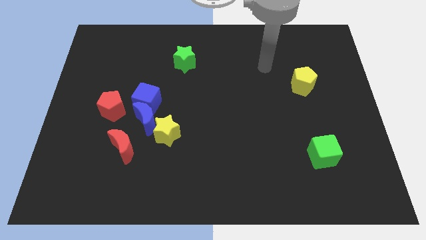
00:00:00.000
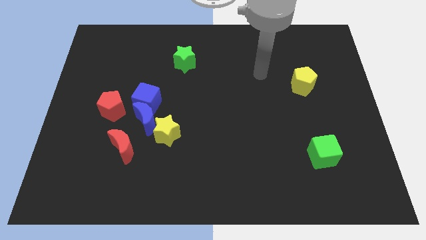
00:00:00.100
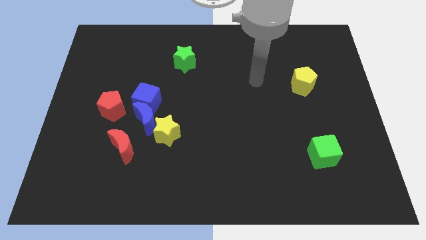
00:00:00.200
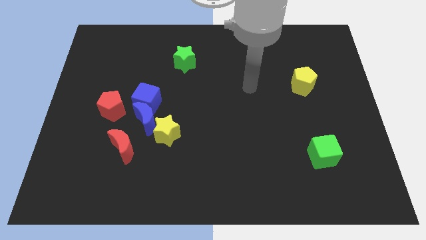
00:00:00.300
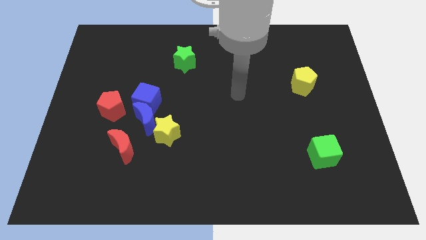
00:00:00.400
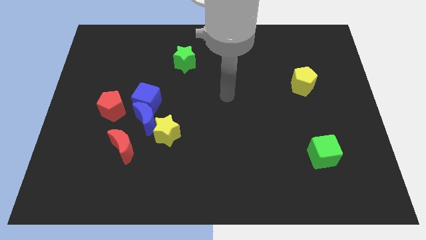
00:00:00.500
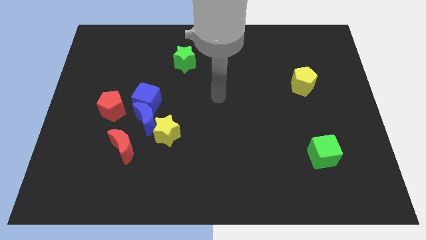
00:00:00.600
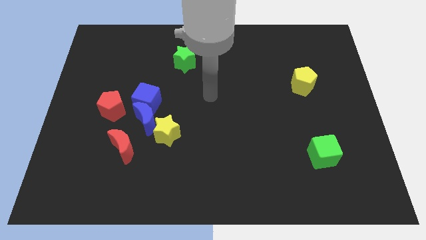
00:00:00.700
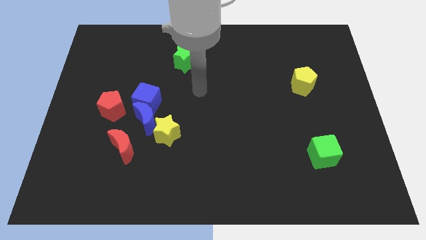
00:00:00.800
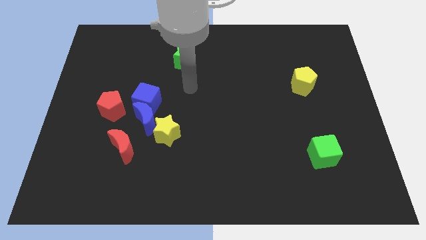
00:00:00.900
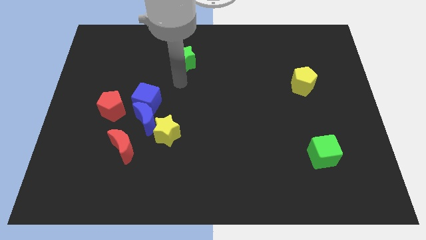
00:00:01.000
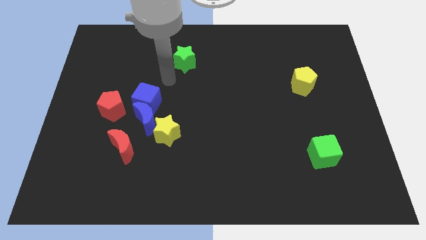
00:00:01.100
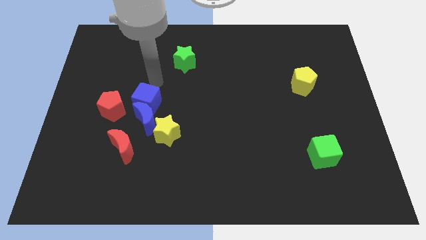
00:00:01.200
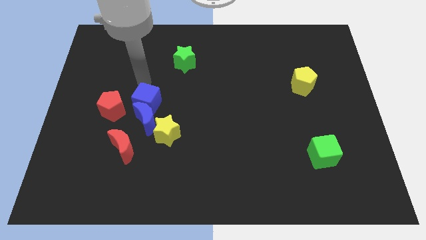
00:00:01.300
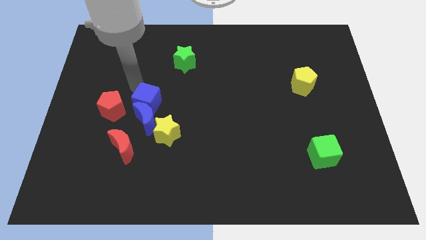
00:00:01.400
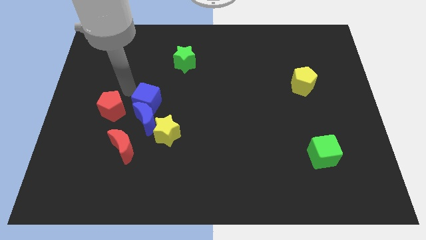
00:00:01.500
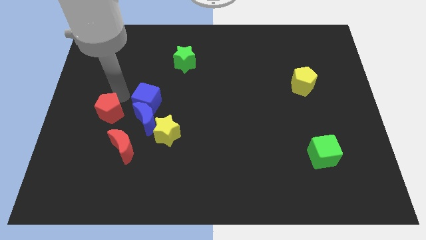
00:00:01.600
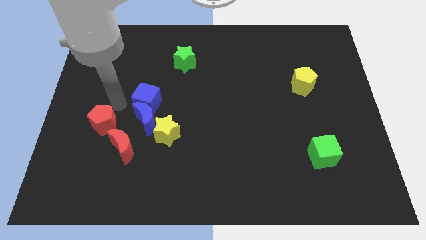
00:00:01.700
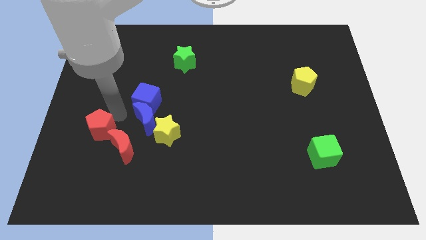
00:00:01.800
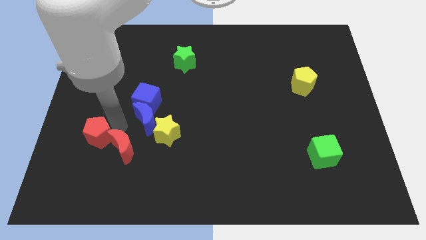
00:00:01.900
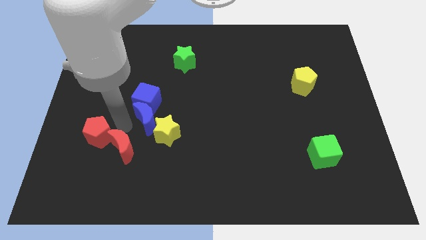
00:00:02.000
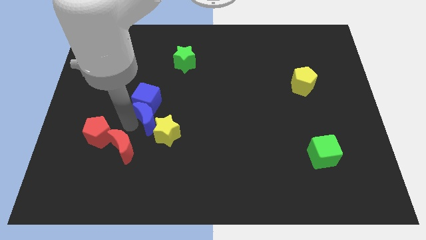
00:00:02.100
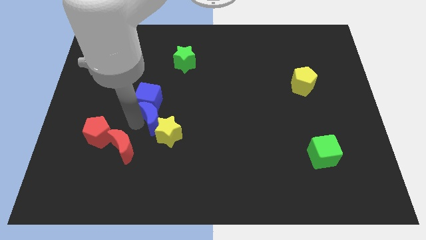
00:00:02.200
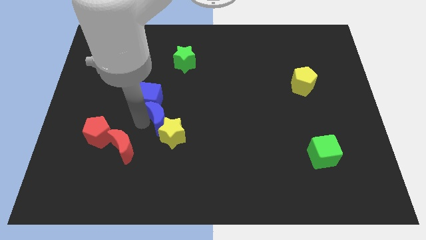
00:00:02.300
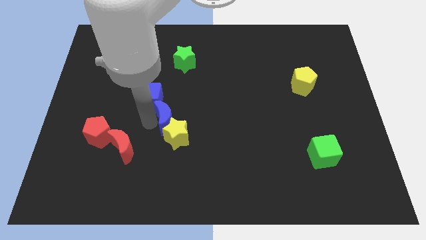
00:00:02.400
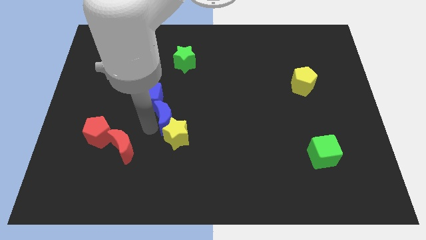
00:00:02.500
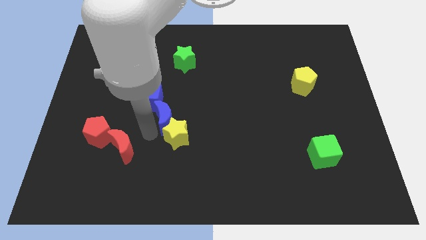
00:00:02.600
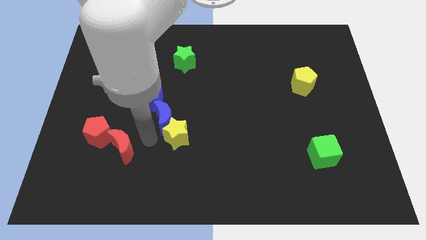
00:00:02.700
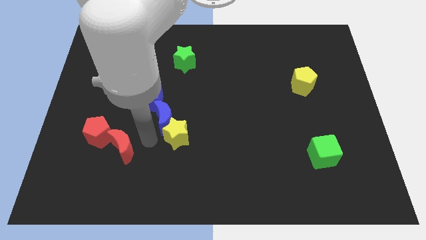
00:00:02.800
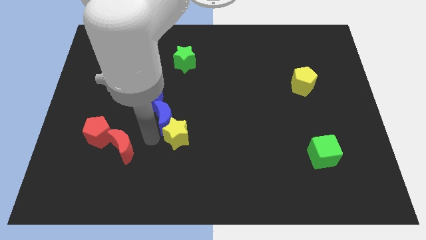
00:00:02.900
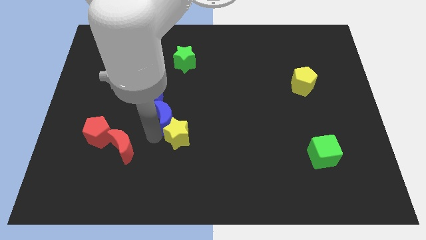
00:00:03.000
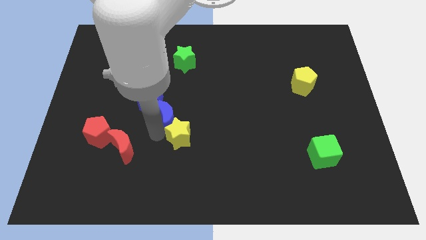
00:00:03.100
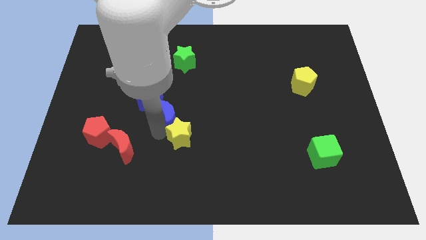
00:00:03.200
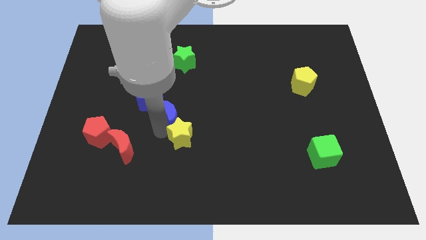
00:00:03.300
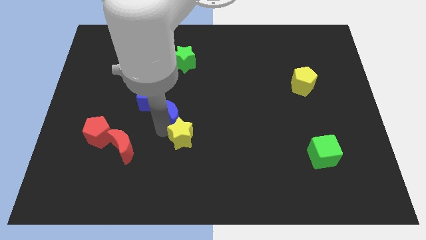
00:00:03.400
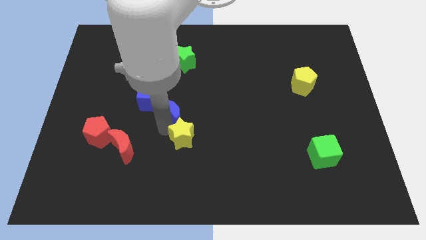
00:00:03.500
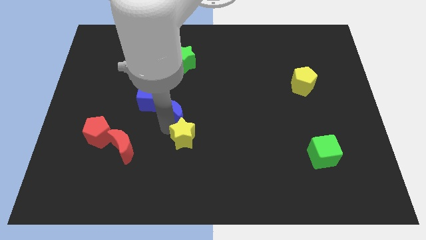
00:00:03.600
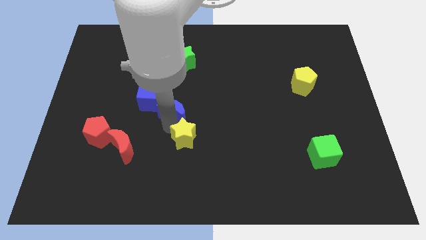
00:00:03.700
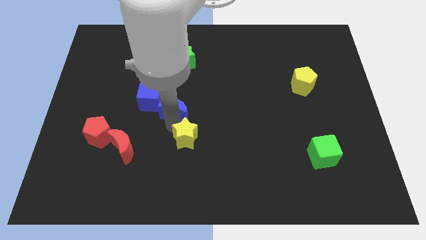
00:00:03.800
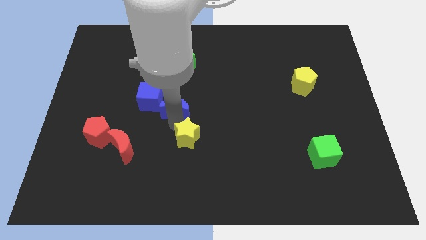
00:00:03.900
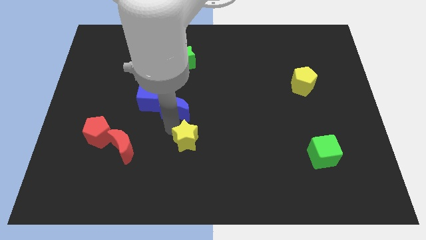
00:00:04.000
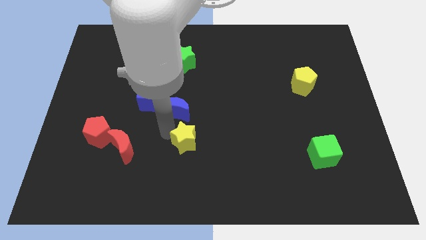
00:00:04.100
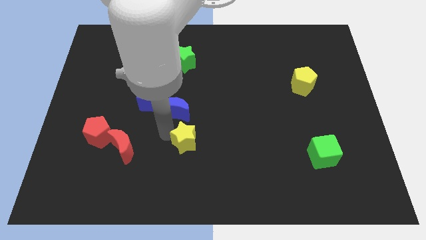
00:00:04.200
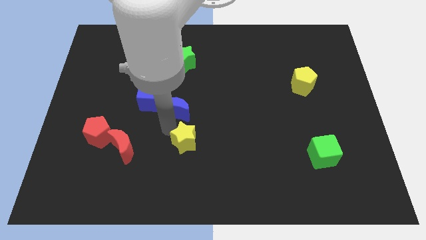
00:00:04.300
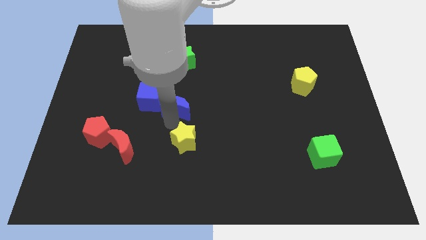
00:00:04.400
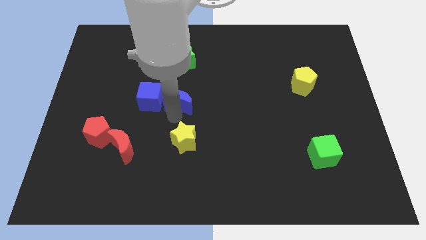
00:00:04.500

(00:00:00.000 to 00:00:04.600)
push the blue moon a little upwards and right

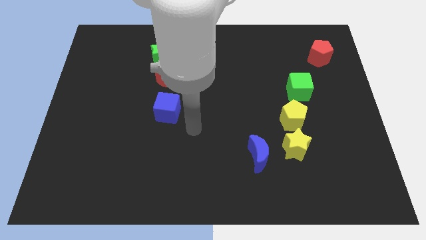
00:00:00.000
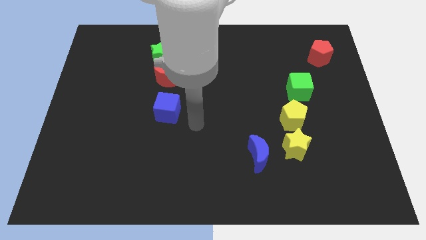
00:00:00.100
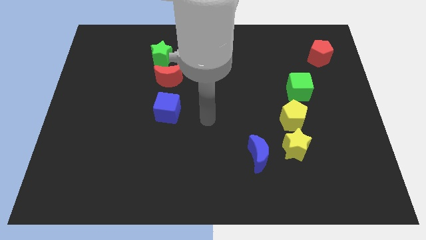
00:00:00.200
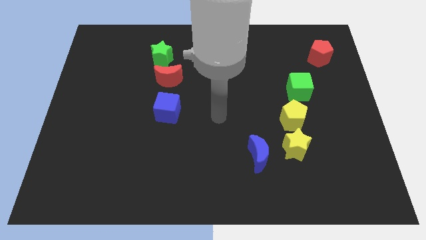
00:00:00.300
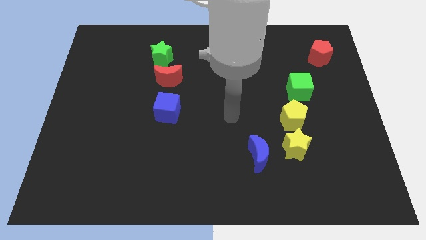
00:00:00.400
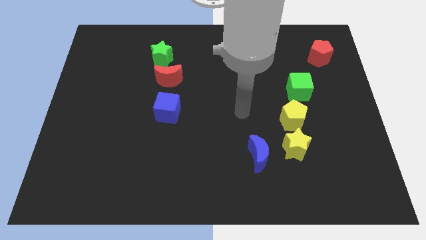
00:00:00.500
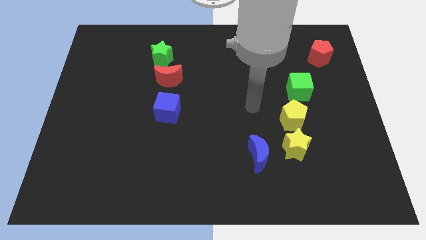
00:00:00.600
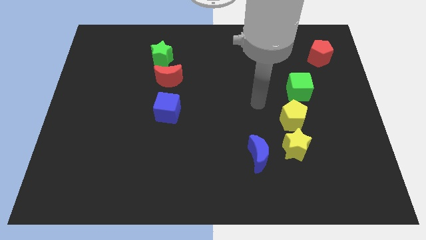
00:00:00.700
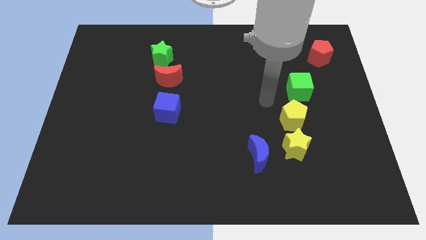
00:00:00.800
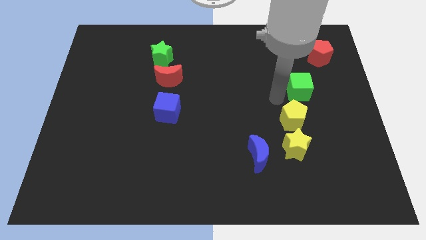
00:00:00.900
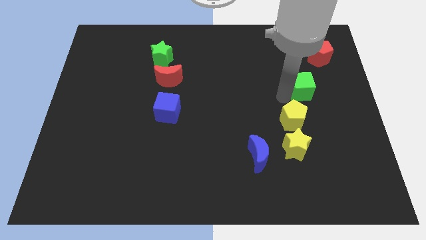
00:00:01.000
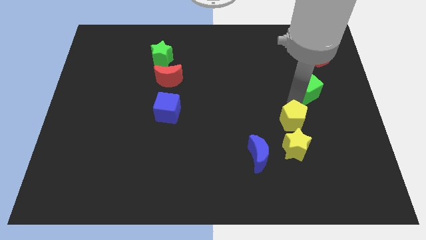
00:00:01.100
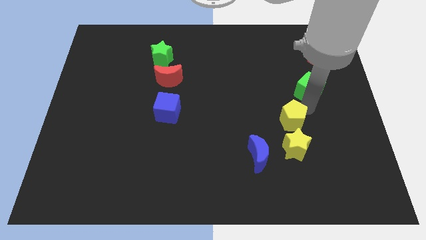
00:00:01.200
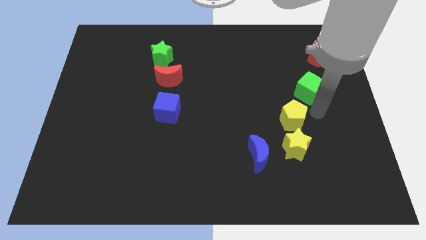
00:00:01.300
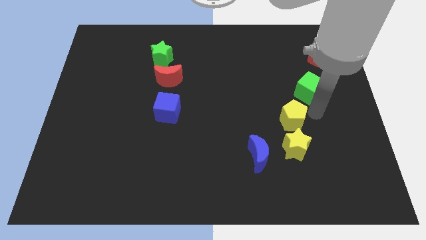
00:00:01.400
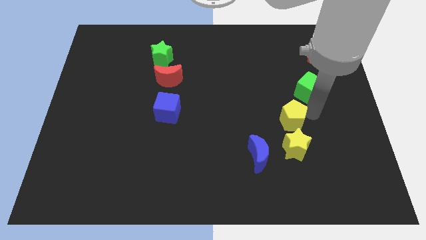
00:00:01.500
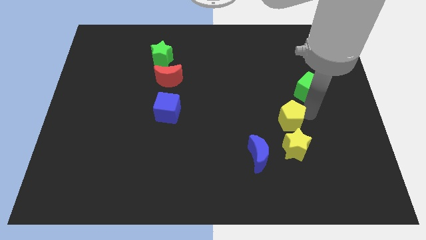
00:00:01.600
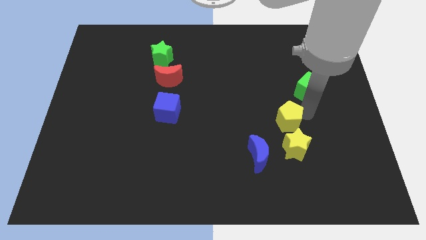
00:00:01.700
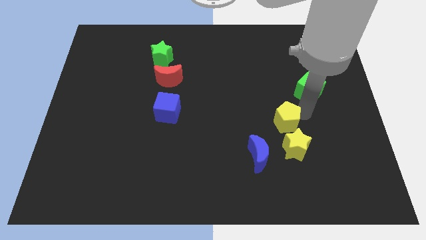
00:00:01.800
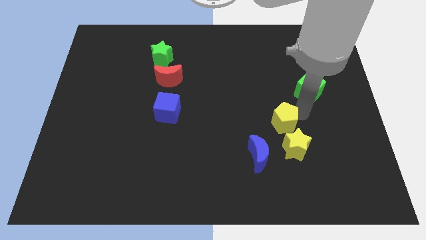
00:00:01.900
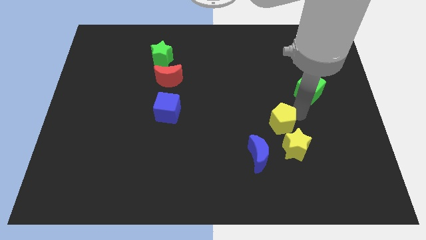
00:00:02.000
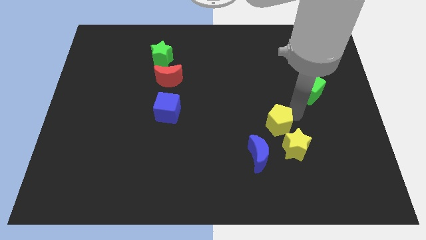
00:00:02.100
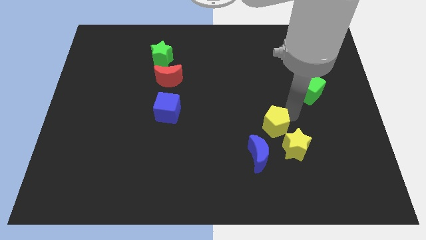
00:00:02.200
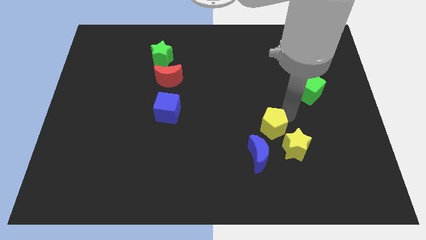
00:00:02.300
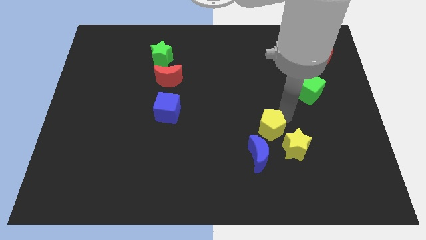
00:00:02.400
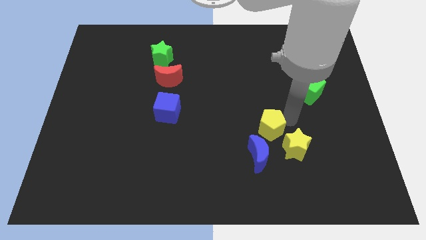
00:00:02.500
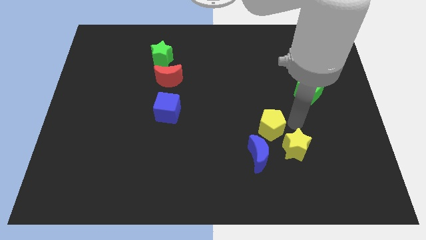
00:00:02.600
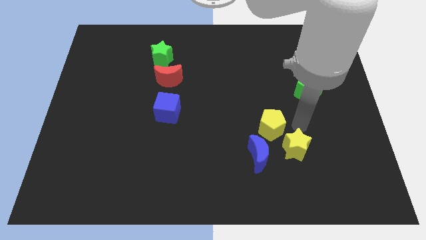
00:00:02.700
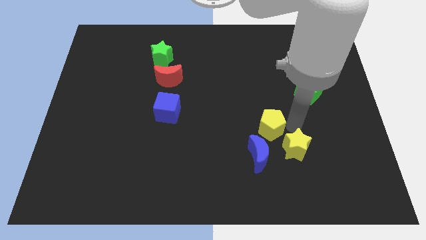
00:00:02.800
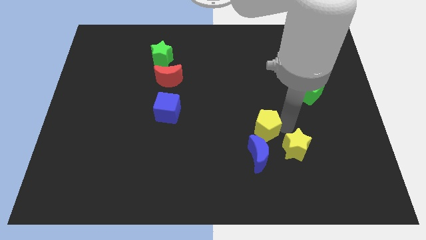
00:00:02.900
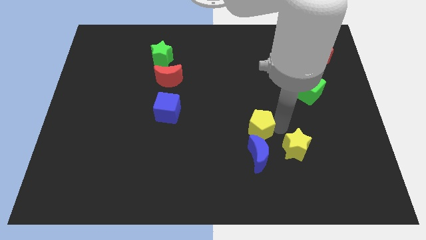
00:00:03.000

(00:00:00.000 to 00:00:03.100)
push the yellow pentagon left somewhat
